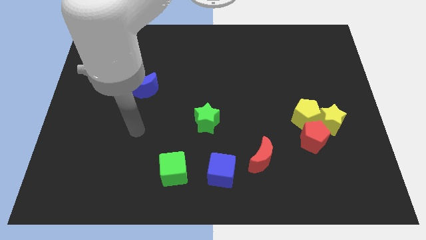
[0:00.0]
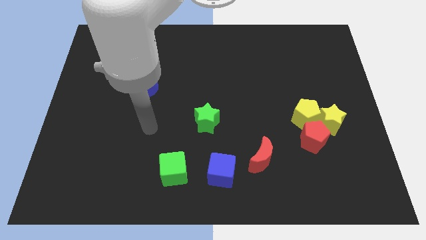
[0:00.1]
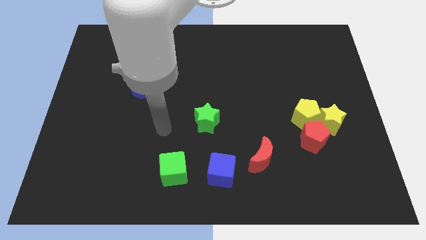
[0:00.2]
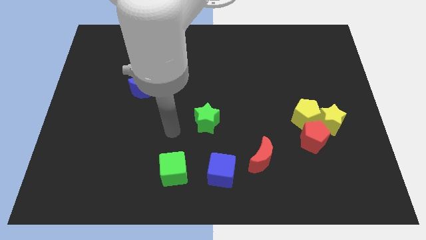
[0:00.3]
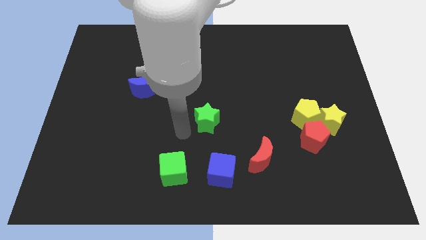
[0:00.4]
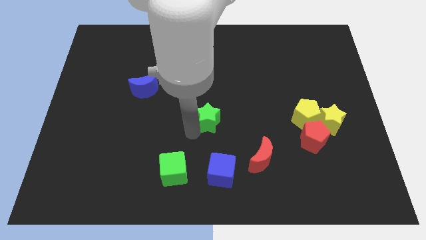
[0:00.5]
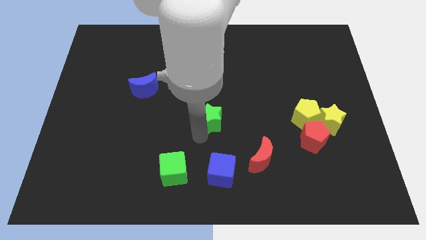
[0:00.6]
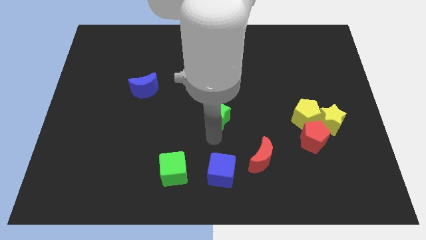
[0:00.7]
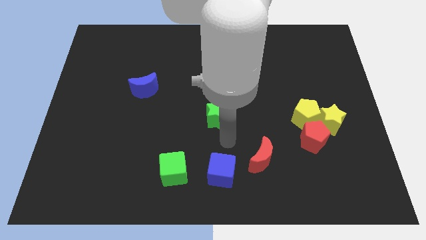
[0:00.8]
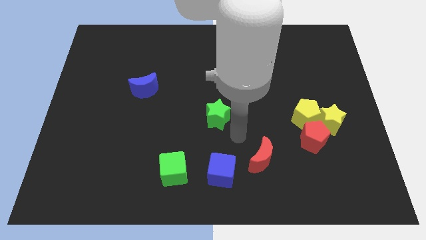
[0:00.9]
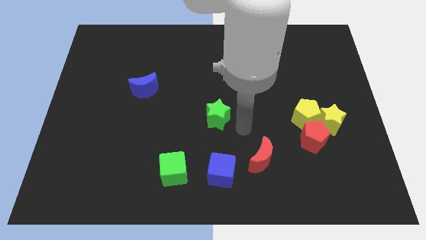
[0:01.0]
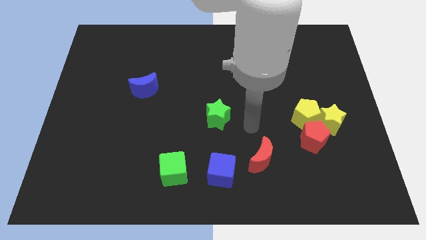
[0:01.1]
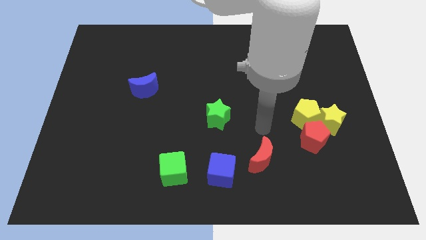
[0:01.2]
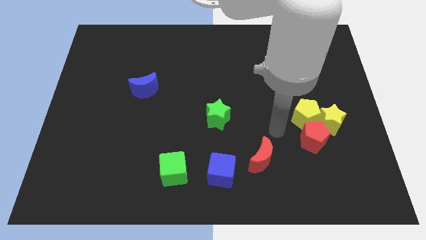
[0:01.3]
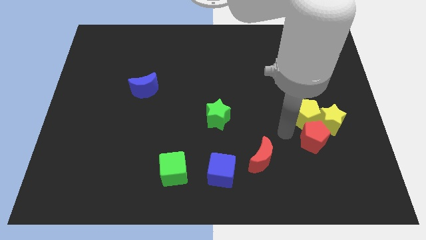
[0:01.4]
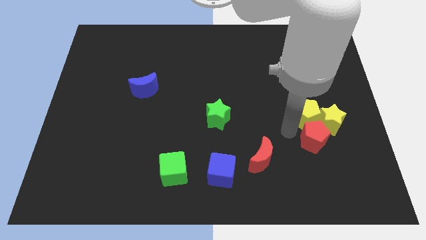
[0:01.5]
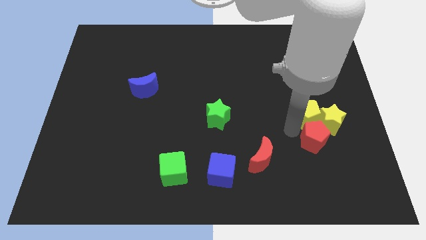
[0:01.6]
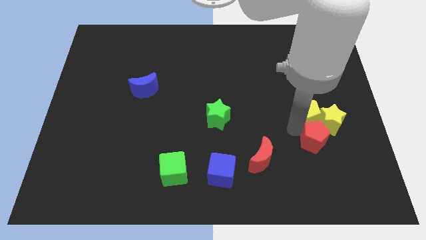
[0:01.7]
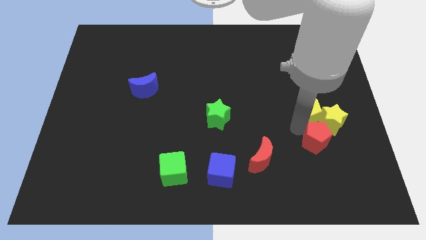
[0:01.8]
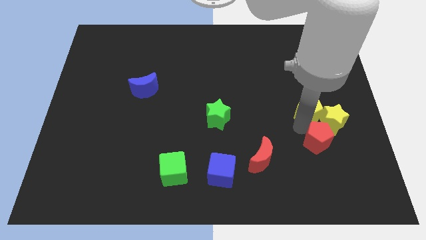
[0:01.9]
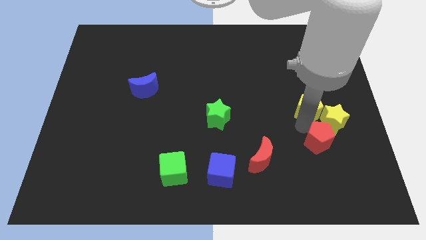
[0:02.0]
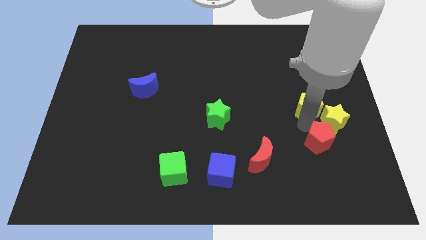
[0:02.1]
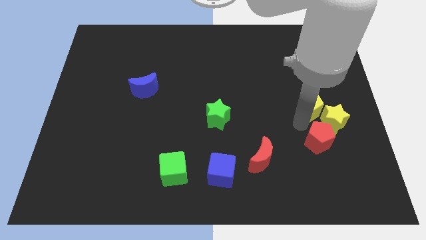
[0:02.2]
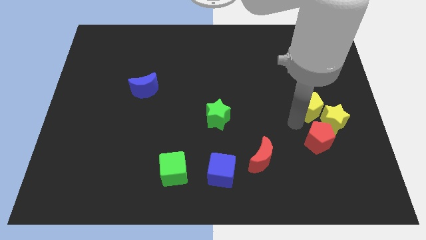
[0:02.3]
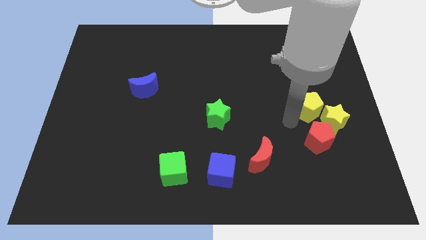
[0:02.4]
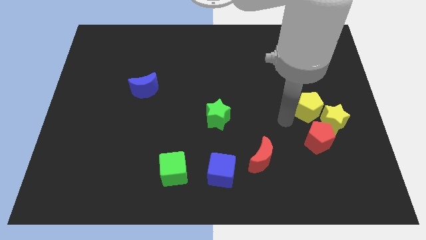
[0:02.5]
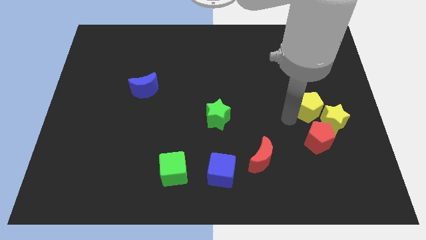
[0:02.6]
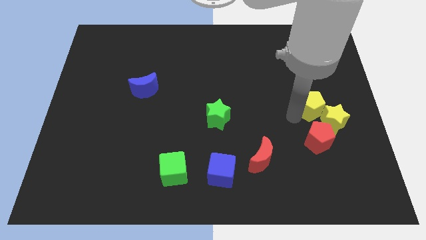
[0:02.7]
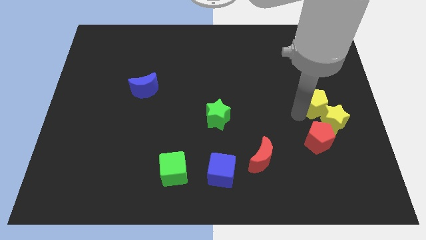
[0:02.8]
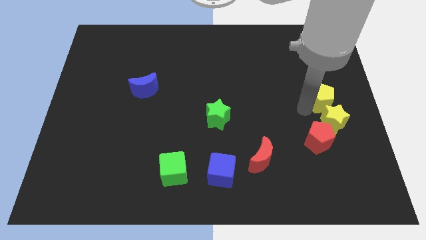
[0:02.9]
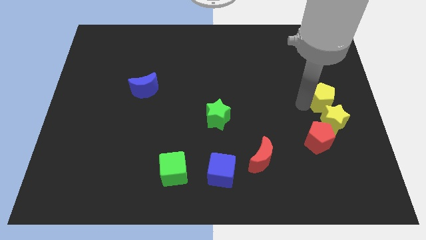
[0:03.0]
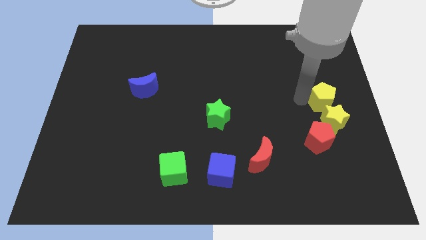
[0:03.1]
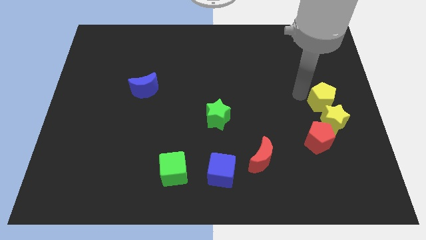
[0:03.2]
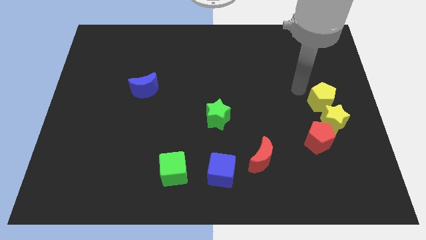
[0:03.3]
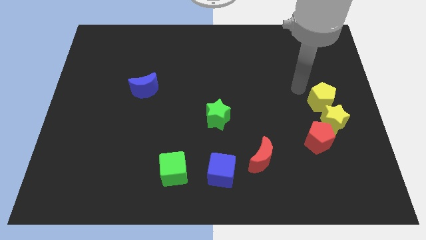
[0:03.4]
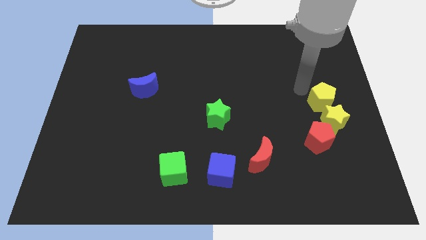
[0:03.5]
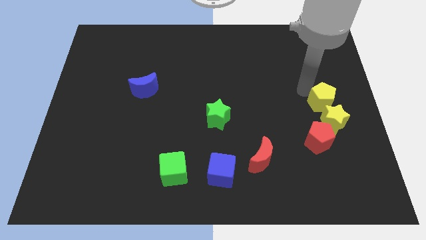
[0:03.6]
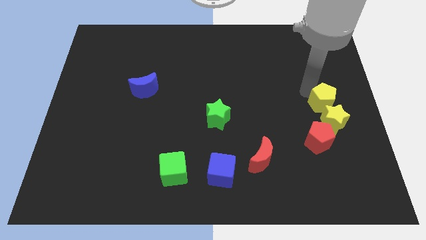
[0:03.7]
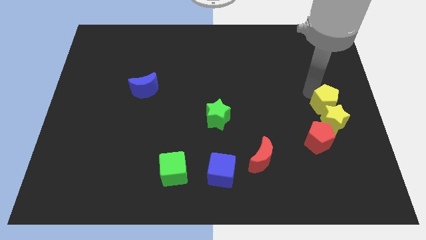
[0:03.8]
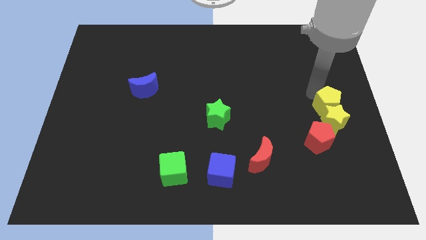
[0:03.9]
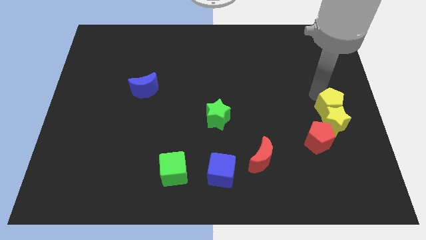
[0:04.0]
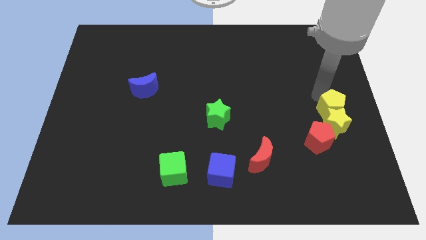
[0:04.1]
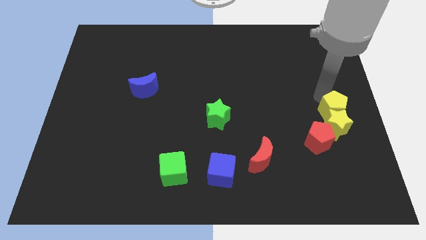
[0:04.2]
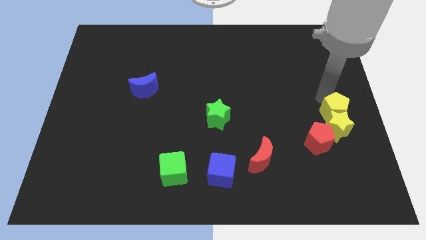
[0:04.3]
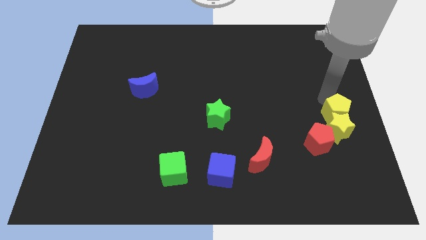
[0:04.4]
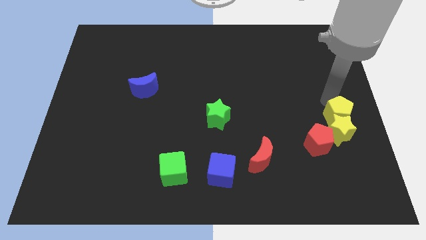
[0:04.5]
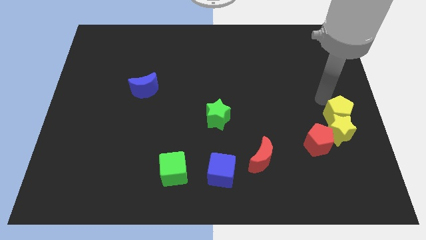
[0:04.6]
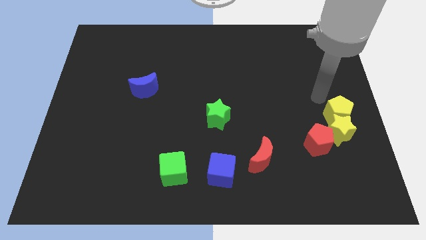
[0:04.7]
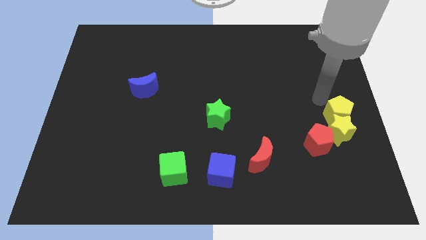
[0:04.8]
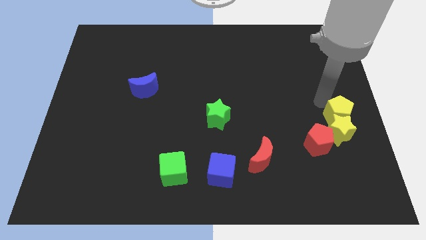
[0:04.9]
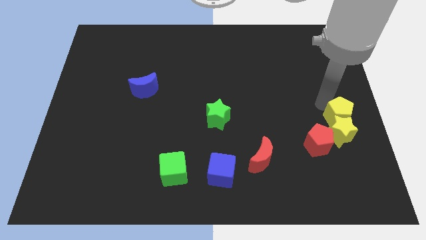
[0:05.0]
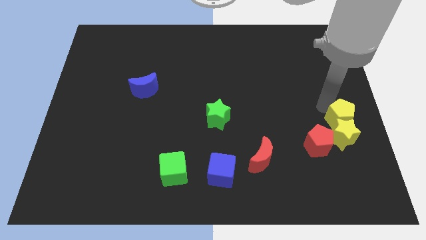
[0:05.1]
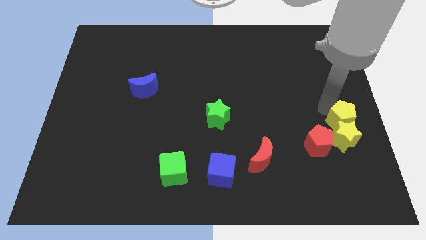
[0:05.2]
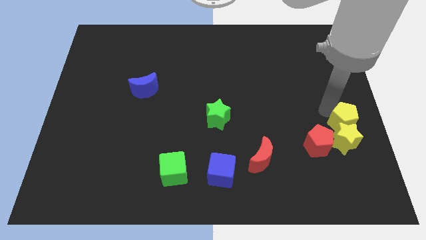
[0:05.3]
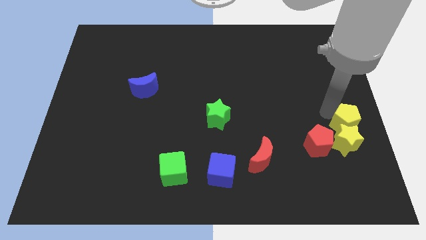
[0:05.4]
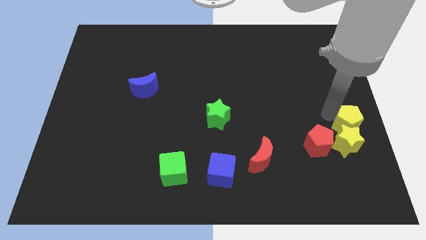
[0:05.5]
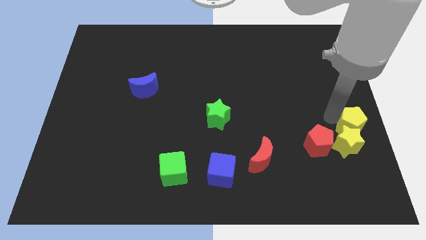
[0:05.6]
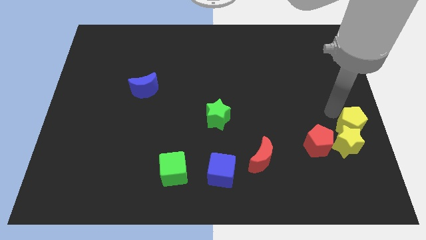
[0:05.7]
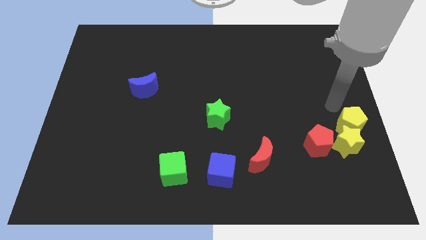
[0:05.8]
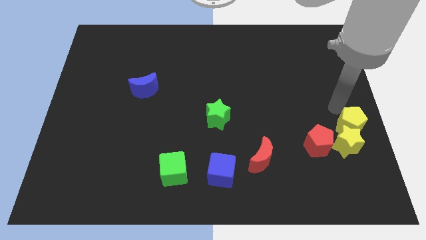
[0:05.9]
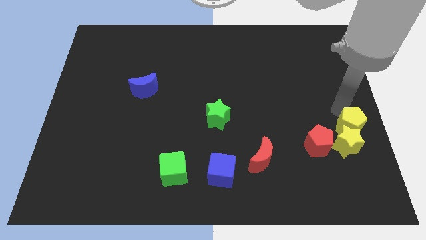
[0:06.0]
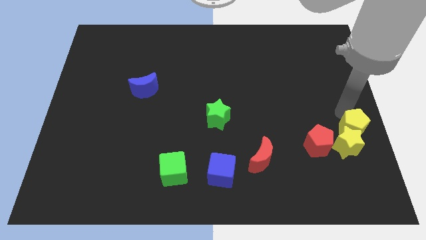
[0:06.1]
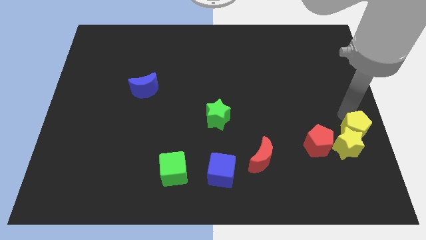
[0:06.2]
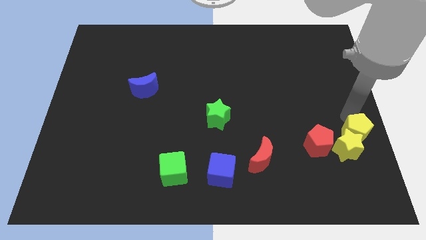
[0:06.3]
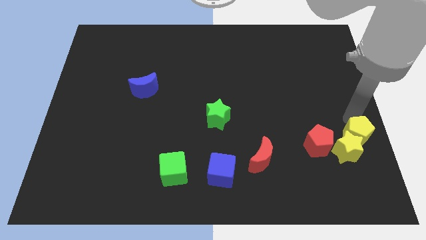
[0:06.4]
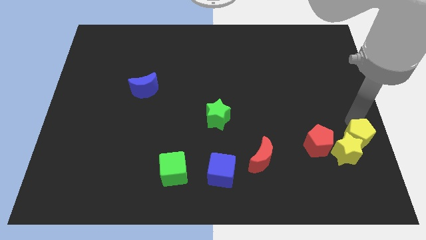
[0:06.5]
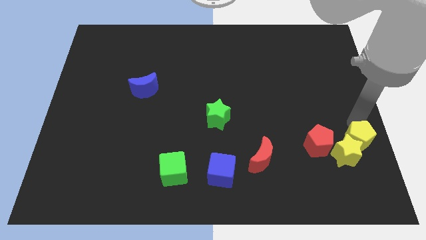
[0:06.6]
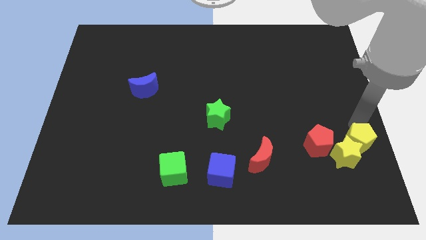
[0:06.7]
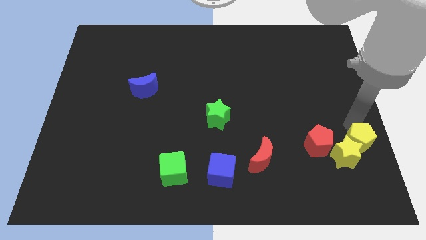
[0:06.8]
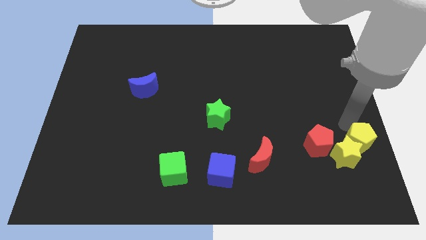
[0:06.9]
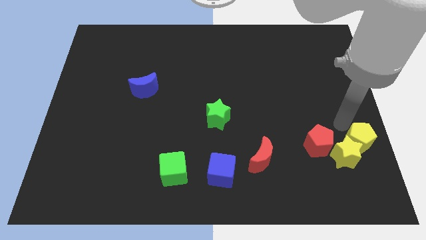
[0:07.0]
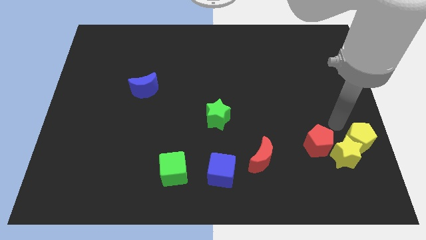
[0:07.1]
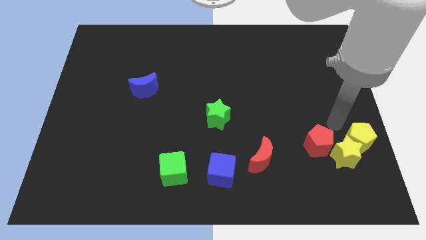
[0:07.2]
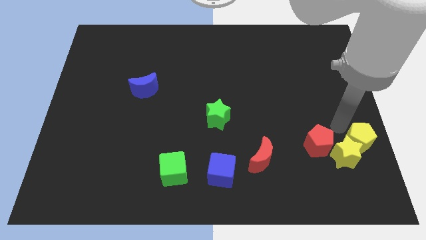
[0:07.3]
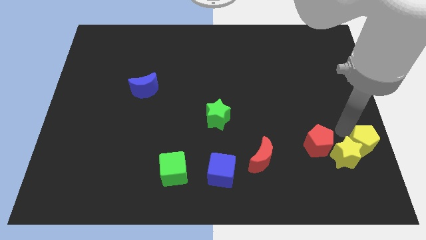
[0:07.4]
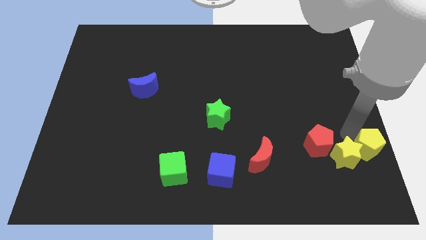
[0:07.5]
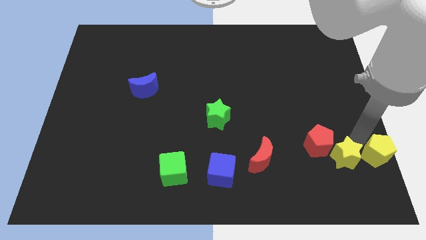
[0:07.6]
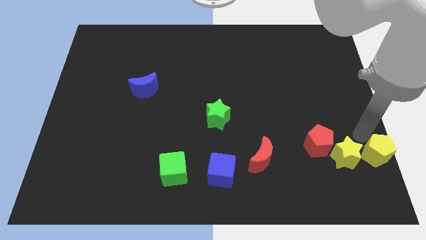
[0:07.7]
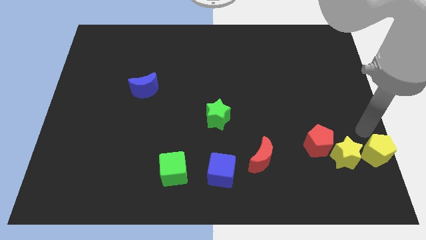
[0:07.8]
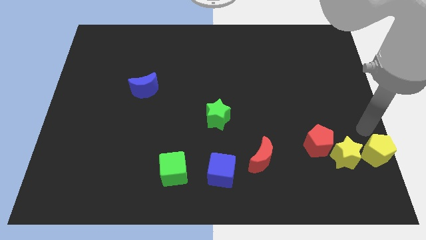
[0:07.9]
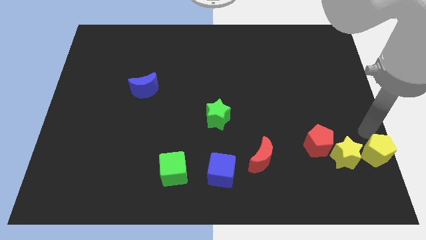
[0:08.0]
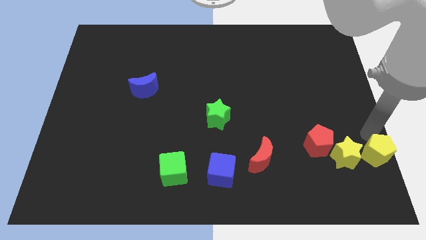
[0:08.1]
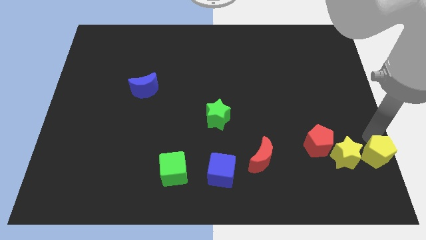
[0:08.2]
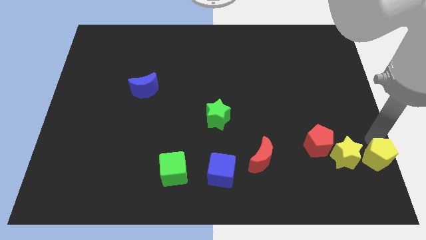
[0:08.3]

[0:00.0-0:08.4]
slide the yellow pentagon to the bottom right corner
